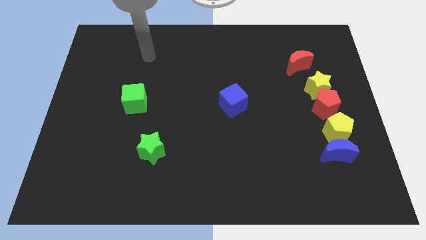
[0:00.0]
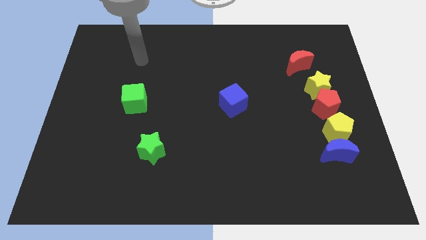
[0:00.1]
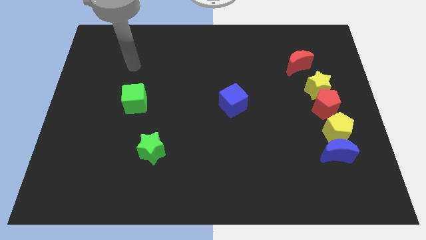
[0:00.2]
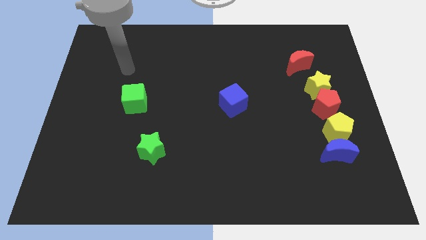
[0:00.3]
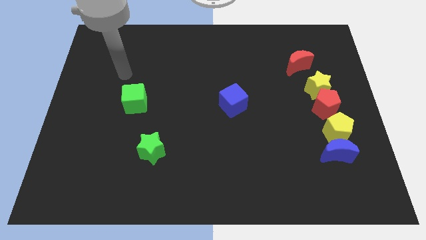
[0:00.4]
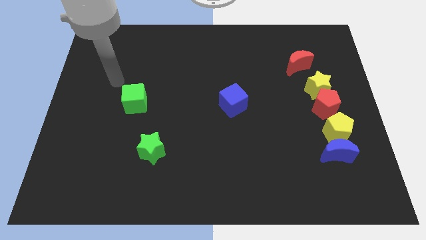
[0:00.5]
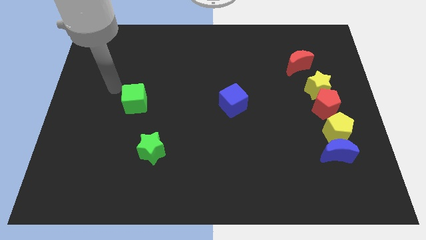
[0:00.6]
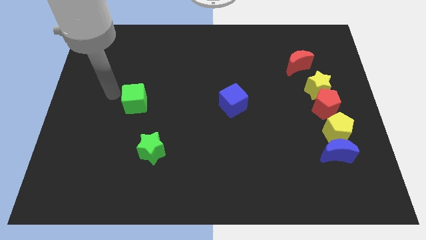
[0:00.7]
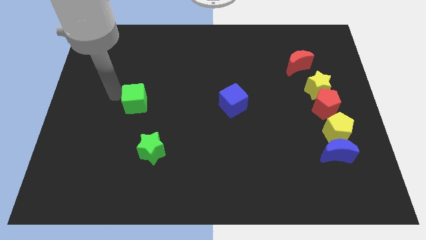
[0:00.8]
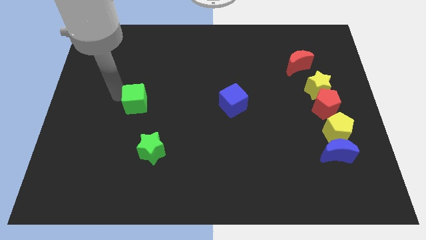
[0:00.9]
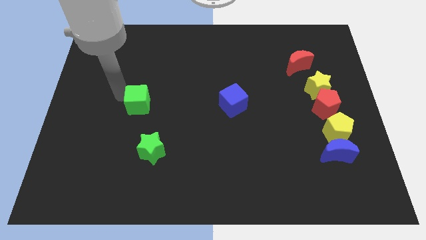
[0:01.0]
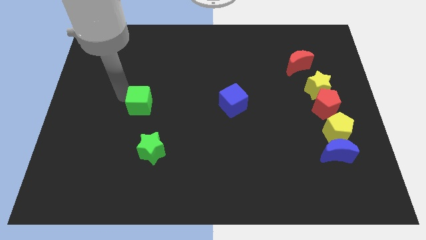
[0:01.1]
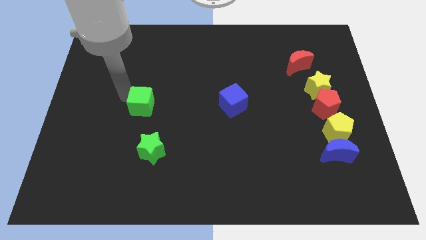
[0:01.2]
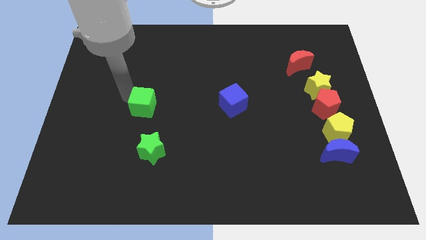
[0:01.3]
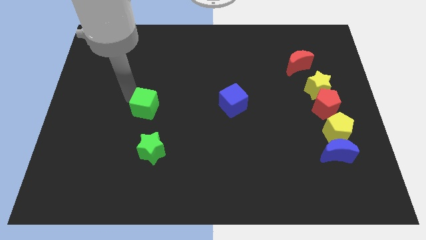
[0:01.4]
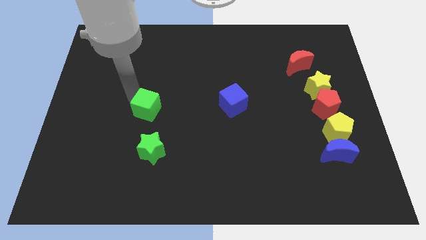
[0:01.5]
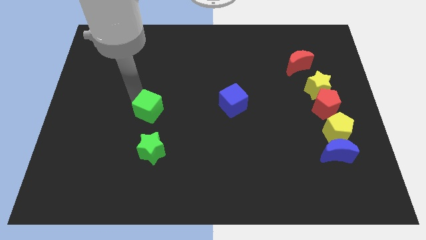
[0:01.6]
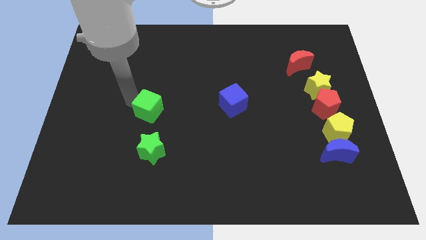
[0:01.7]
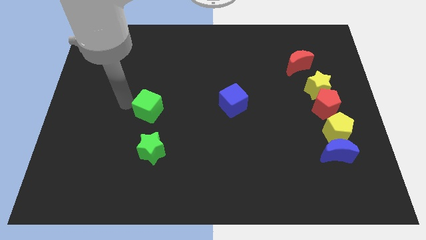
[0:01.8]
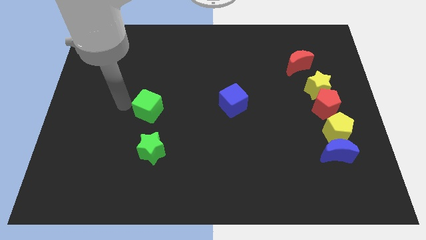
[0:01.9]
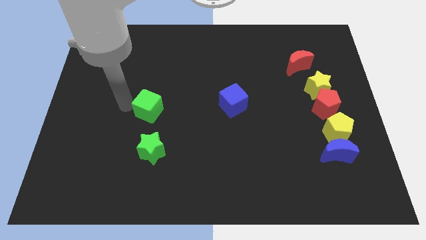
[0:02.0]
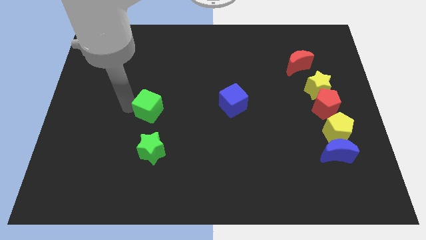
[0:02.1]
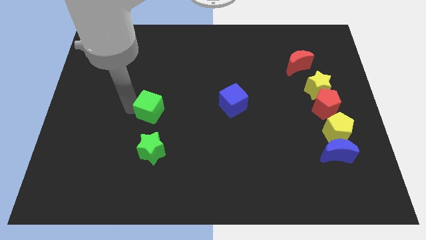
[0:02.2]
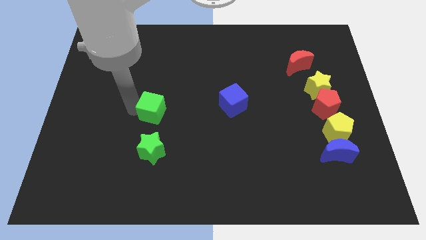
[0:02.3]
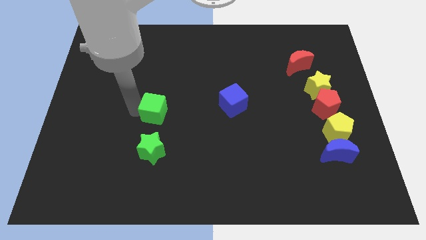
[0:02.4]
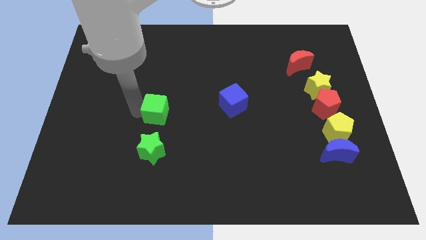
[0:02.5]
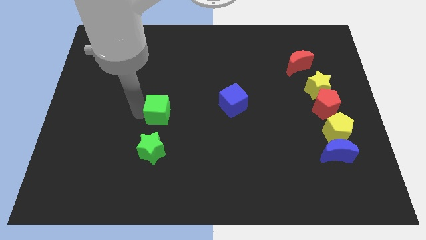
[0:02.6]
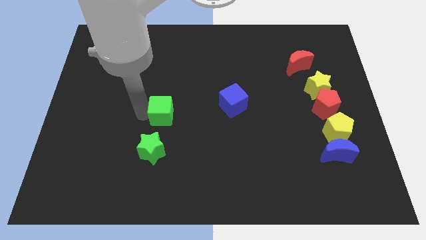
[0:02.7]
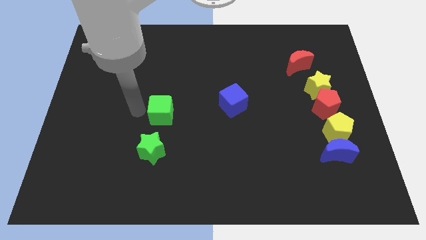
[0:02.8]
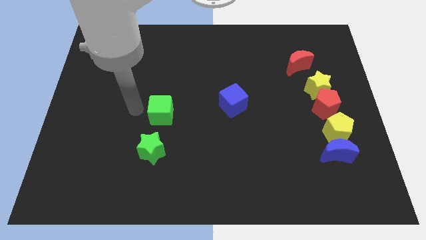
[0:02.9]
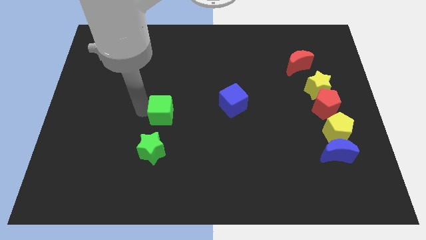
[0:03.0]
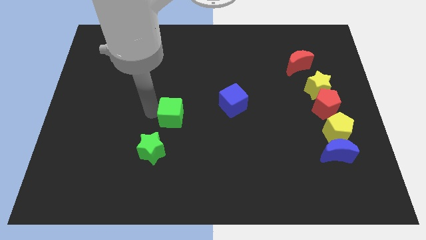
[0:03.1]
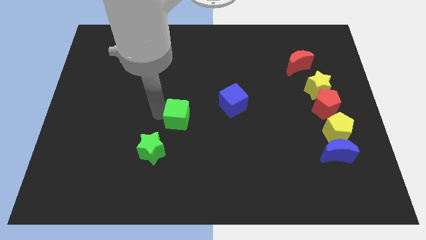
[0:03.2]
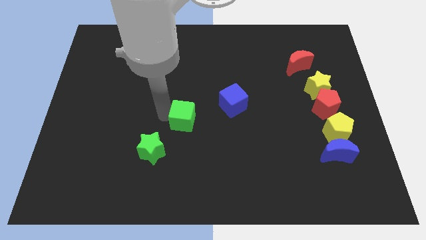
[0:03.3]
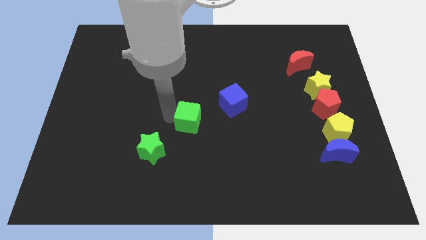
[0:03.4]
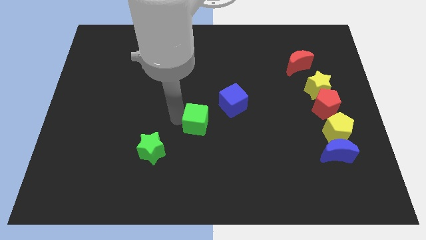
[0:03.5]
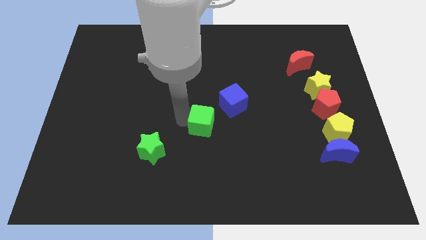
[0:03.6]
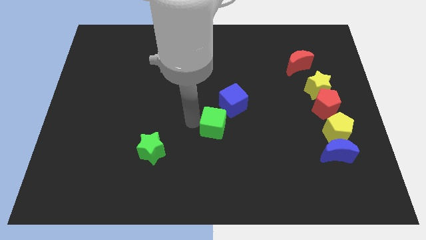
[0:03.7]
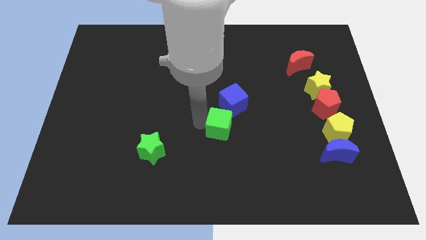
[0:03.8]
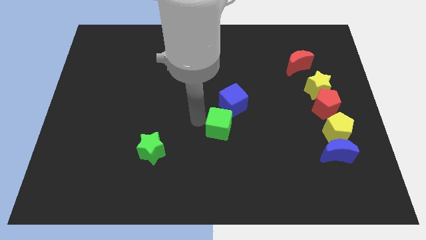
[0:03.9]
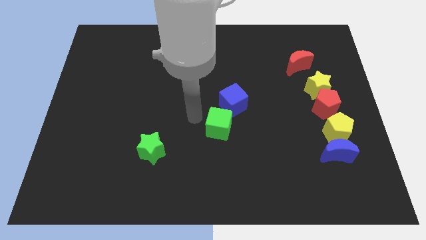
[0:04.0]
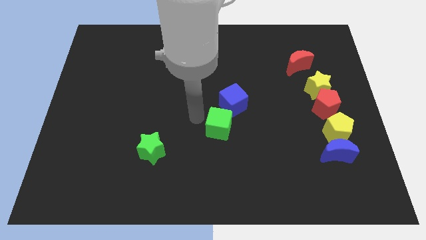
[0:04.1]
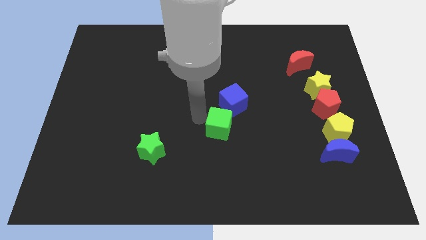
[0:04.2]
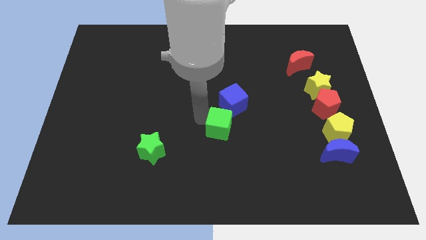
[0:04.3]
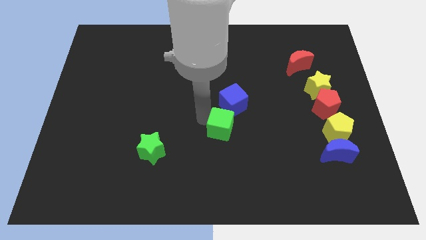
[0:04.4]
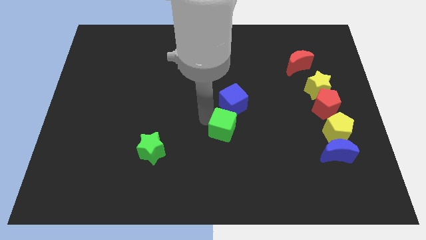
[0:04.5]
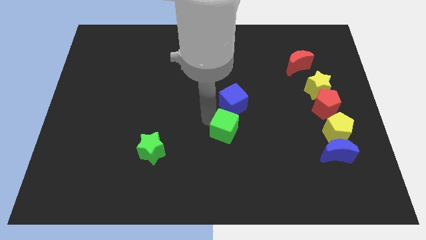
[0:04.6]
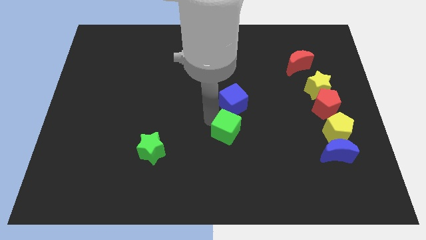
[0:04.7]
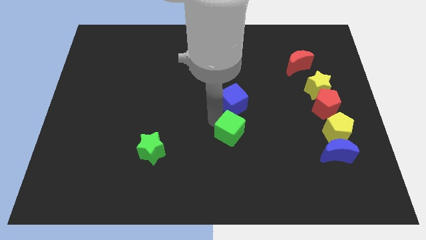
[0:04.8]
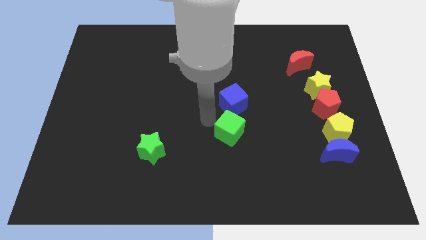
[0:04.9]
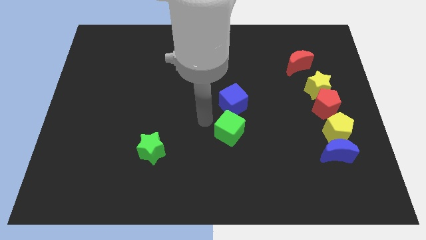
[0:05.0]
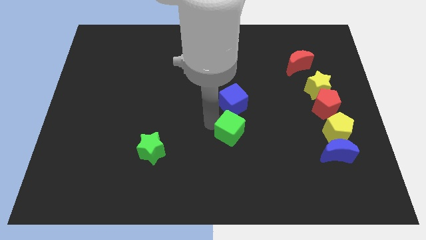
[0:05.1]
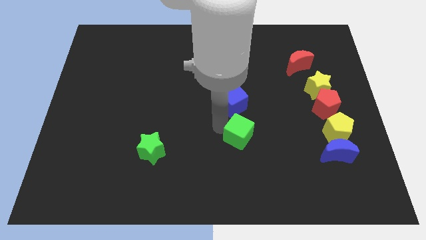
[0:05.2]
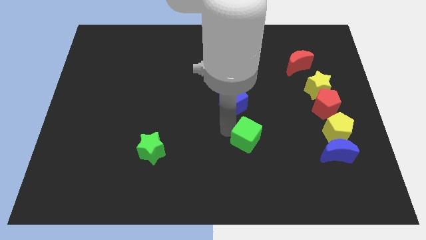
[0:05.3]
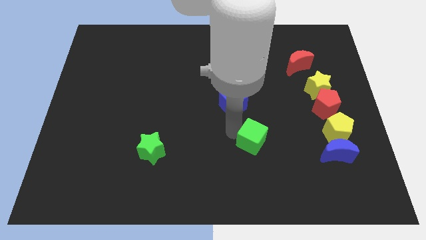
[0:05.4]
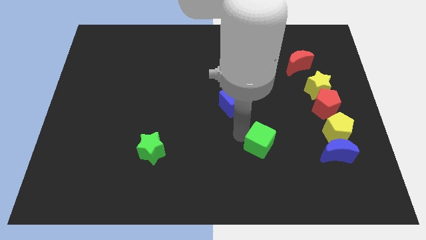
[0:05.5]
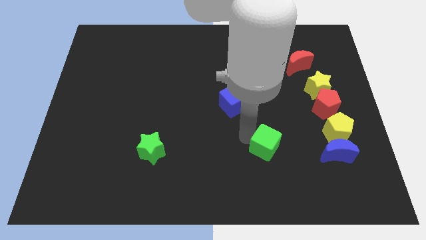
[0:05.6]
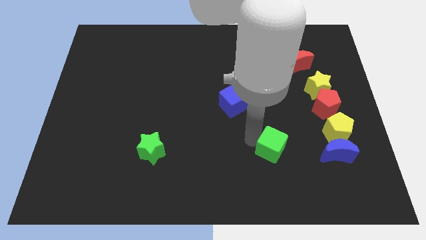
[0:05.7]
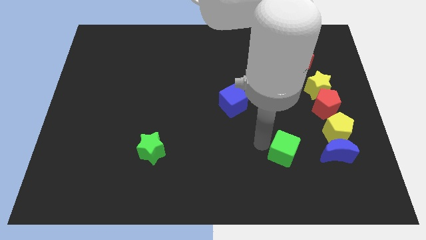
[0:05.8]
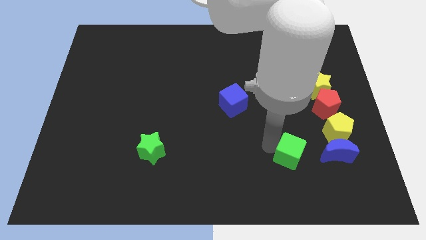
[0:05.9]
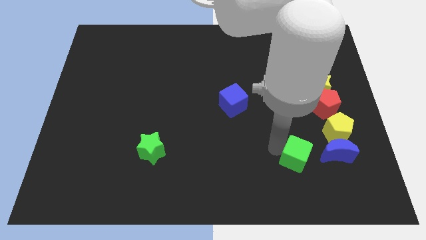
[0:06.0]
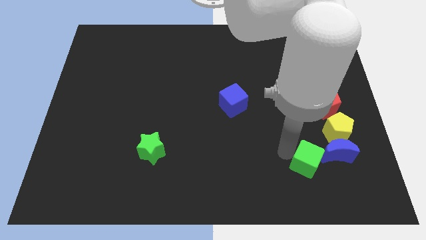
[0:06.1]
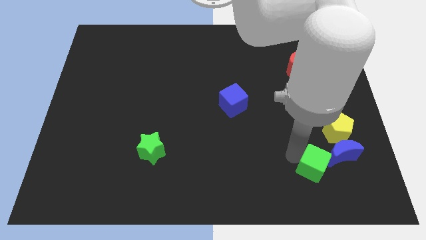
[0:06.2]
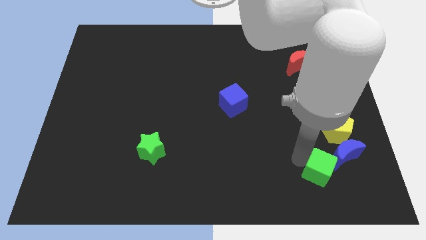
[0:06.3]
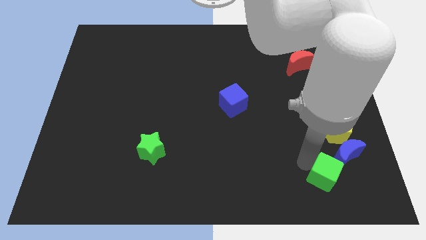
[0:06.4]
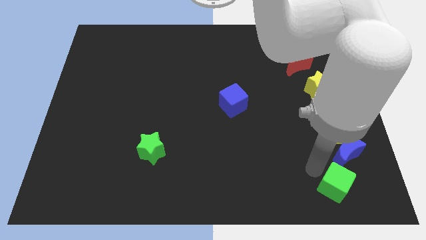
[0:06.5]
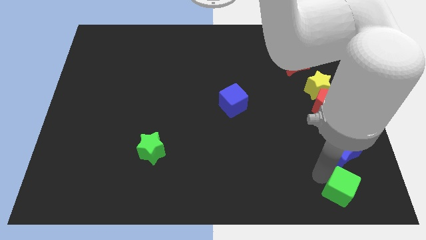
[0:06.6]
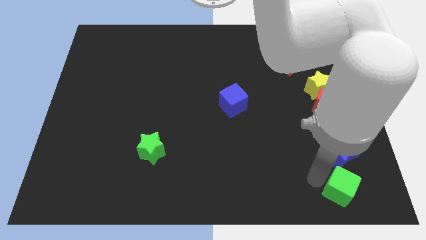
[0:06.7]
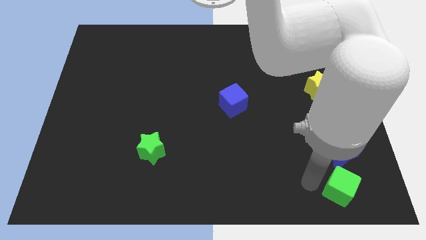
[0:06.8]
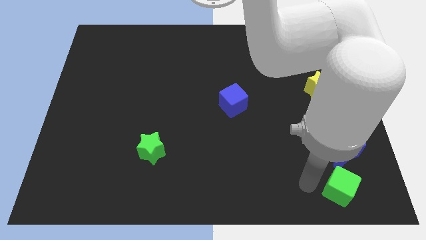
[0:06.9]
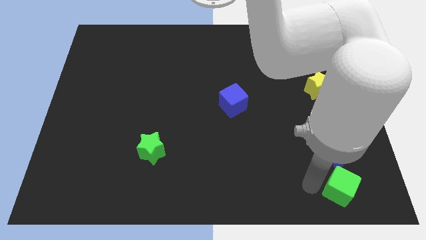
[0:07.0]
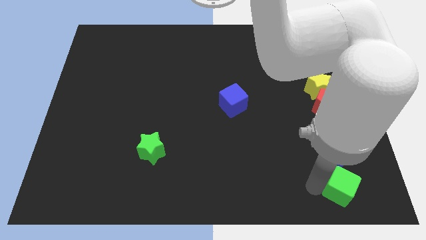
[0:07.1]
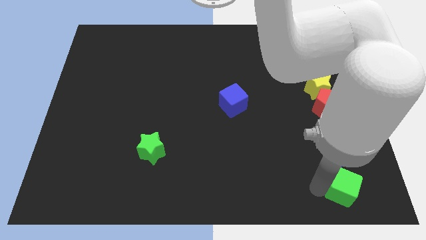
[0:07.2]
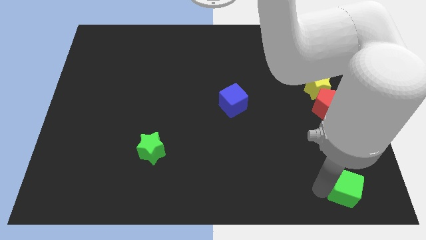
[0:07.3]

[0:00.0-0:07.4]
slide the green cube to the lower right corner
